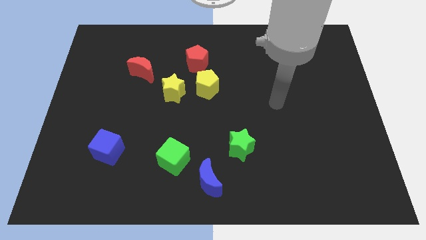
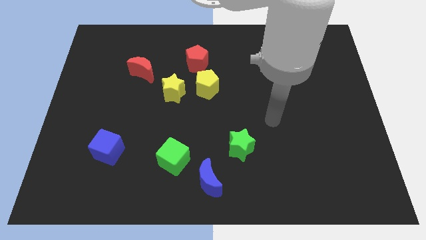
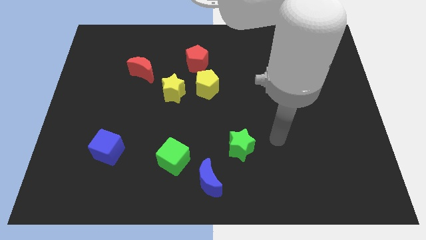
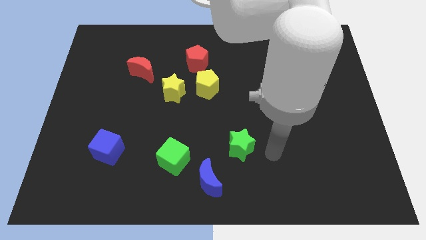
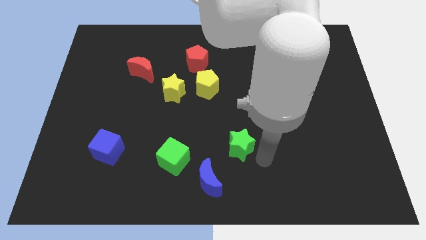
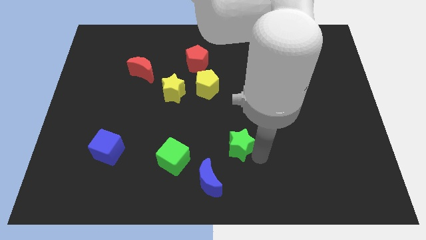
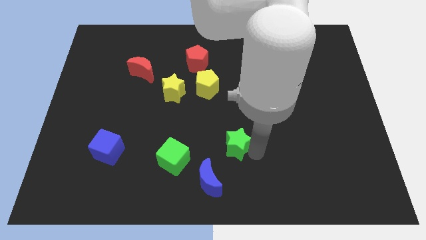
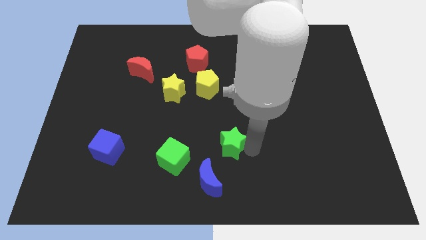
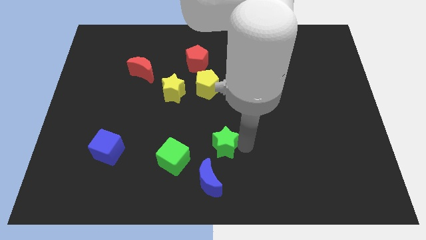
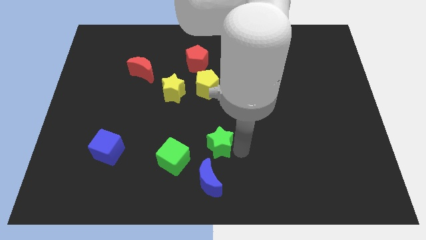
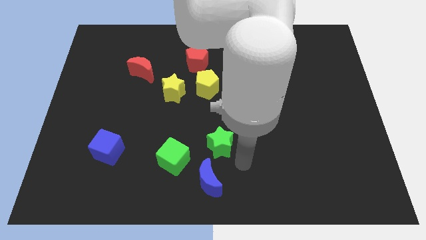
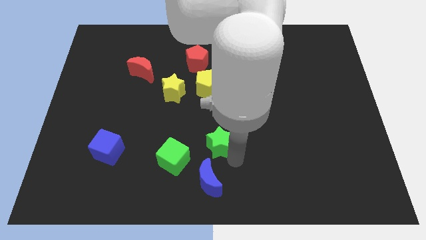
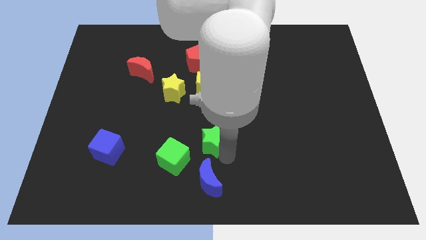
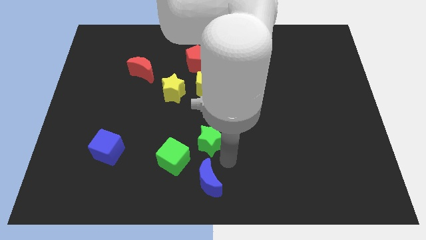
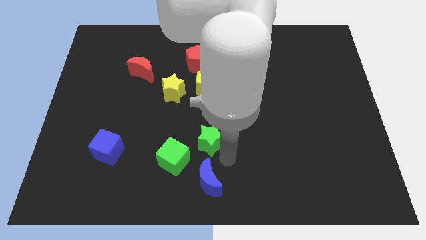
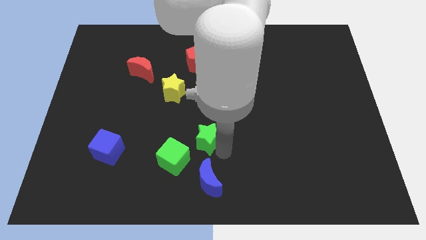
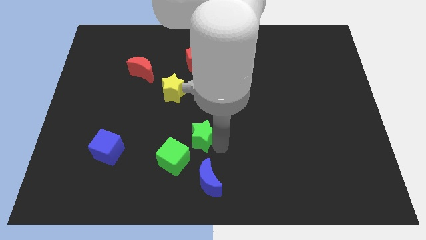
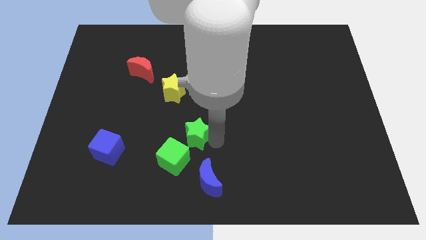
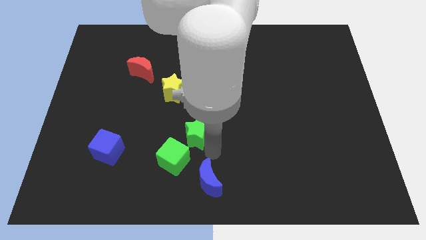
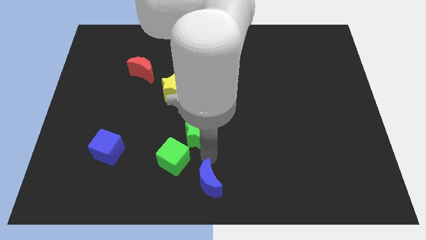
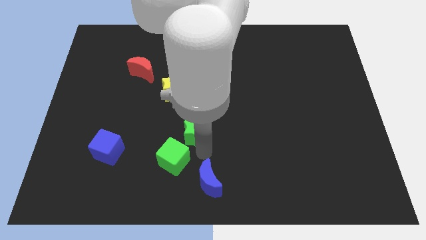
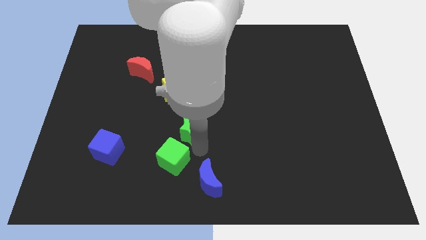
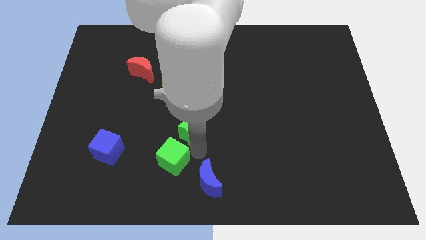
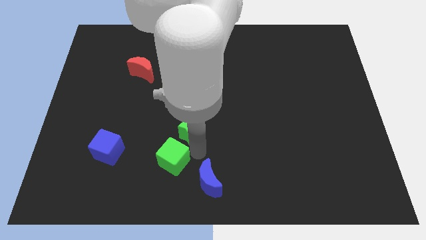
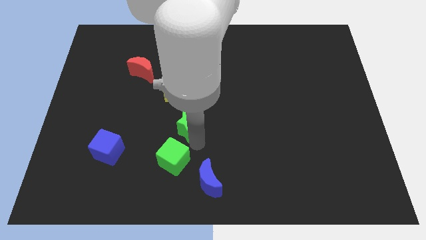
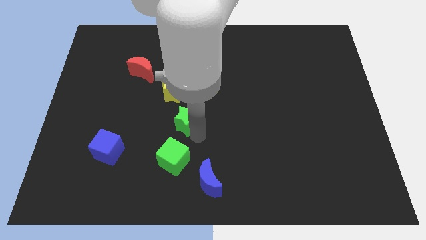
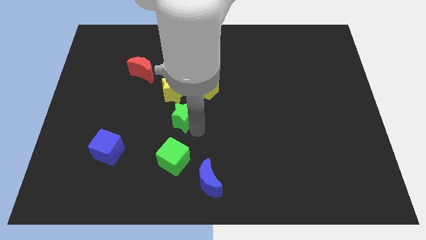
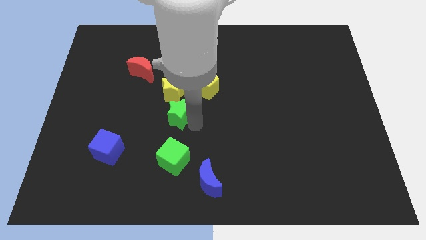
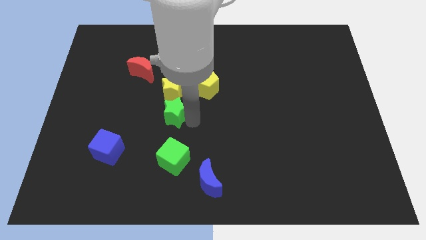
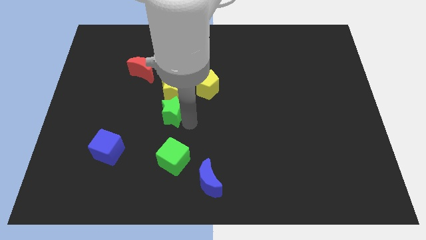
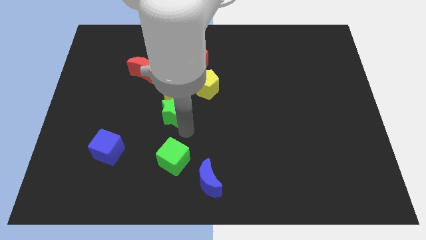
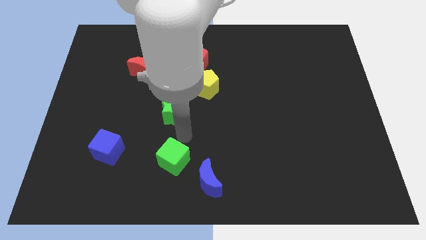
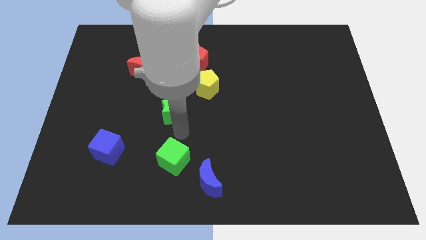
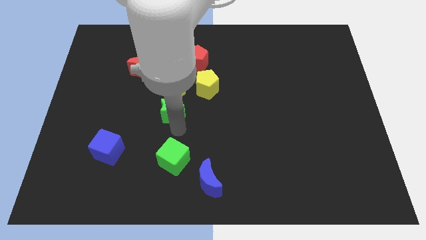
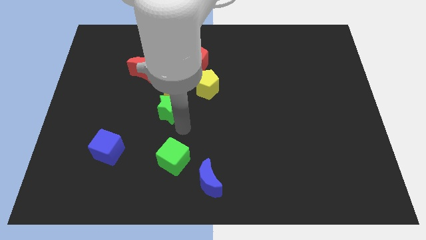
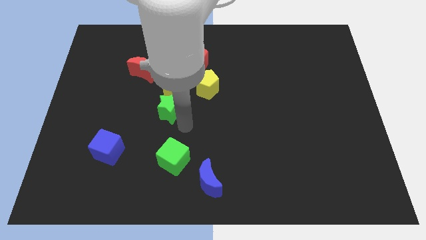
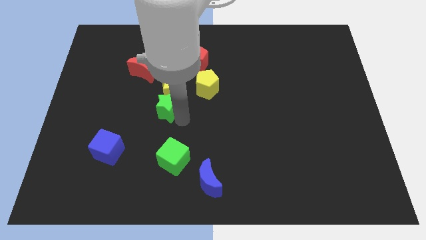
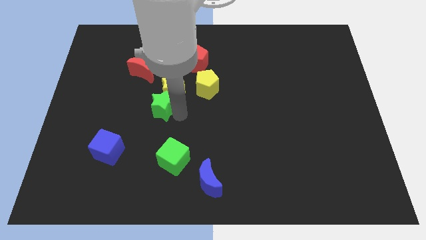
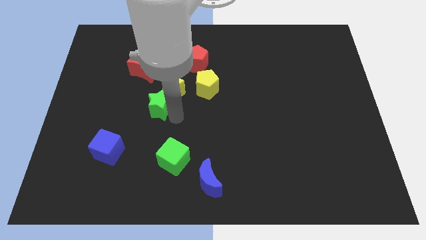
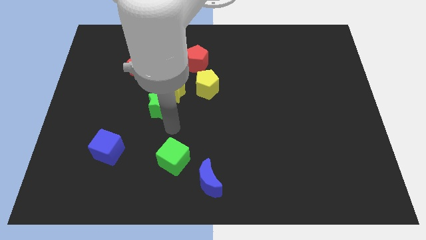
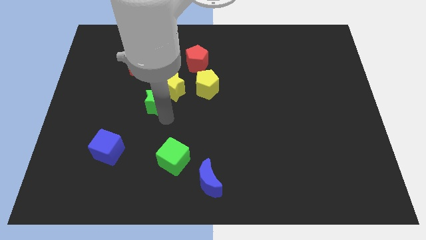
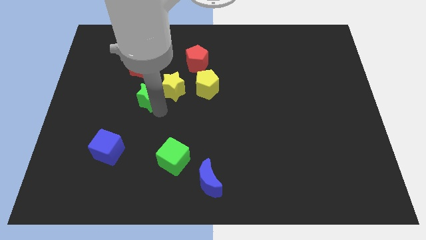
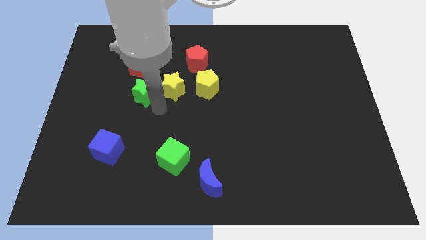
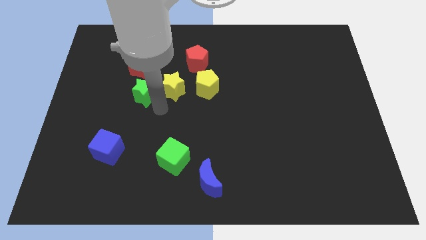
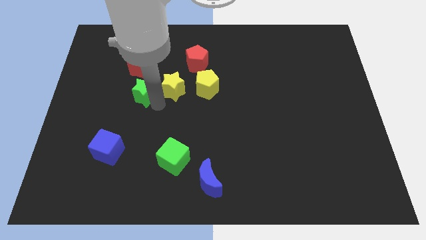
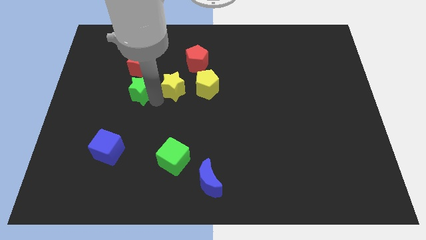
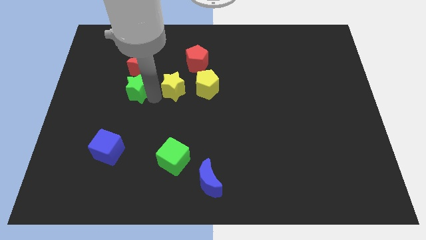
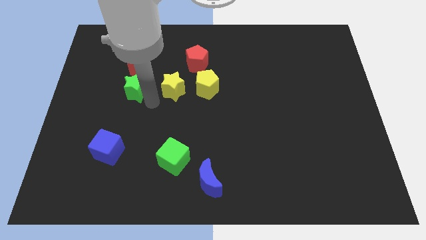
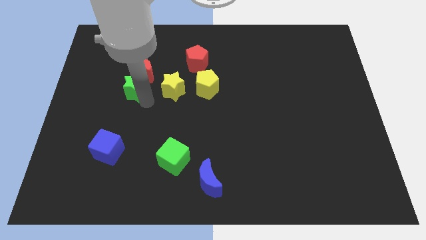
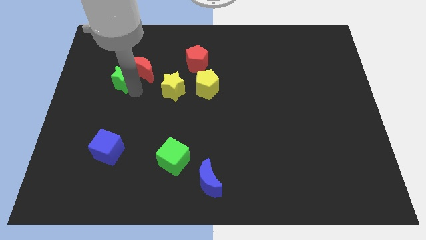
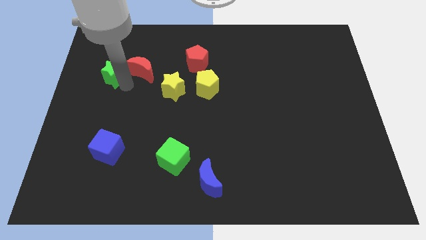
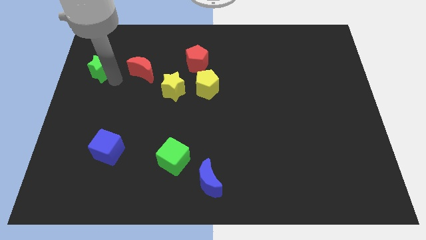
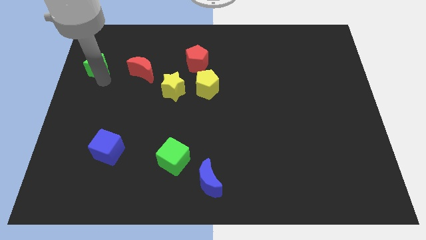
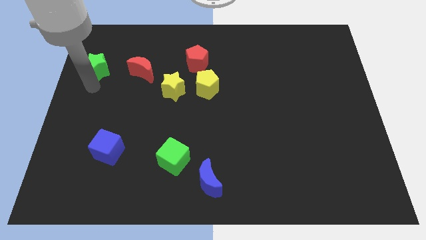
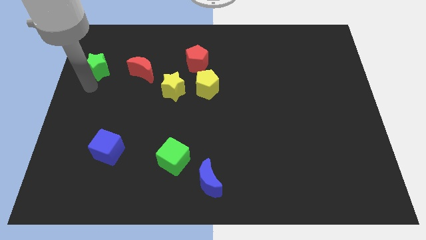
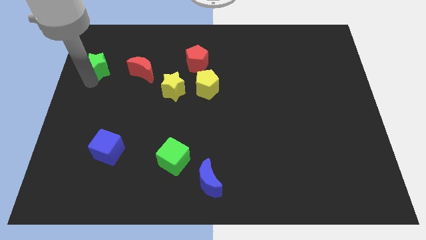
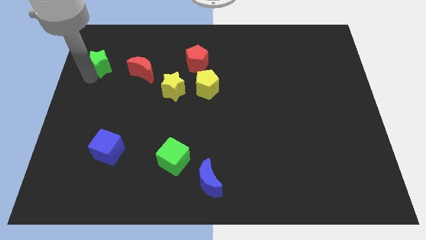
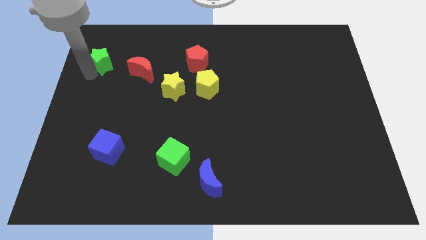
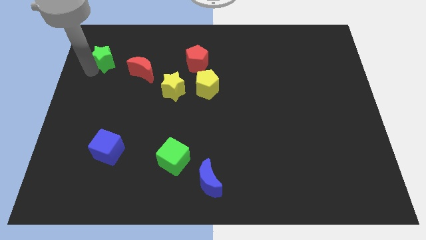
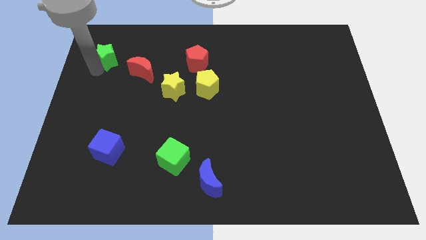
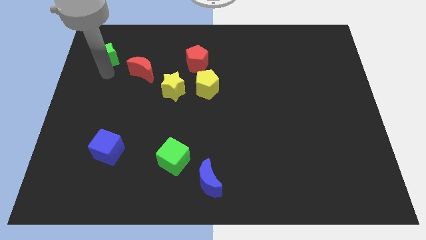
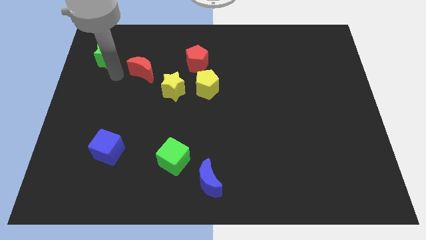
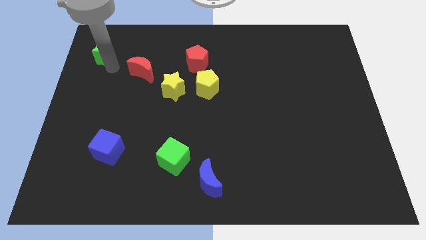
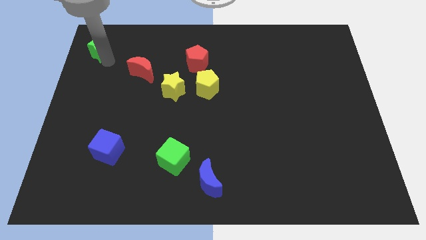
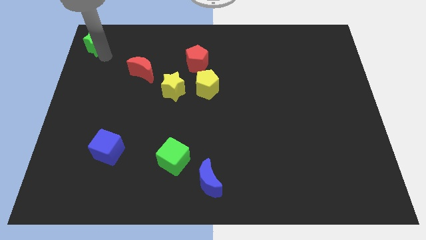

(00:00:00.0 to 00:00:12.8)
push the green star to the top left corner
